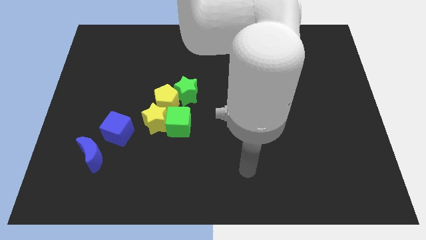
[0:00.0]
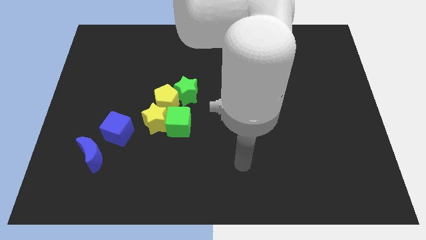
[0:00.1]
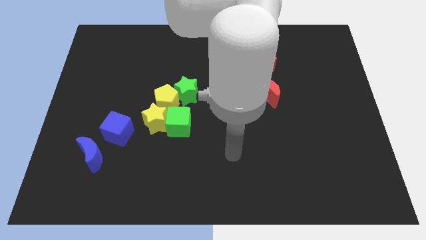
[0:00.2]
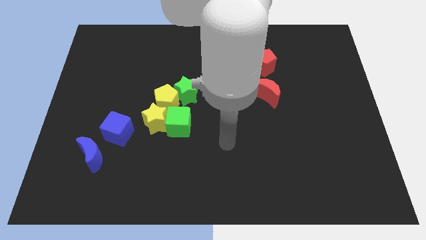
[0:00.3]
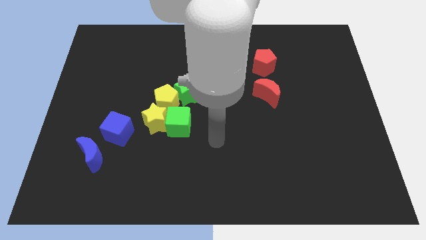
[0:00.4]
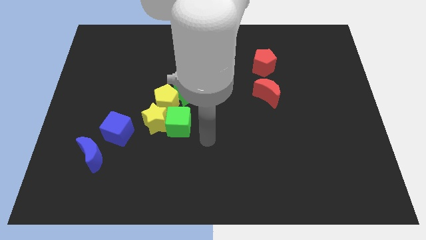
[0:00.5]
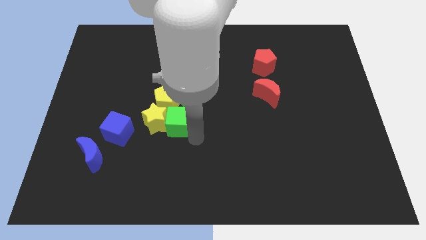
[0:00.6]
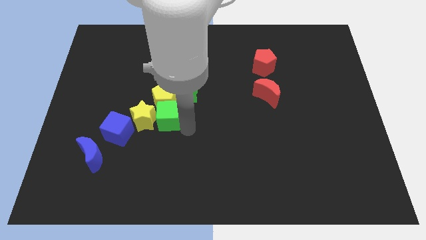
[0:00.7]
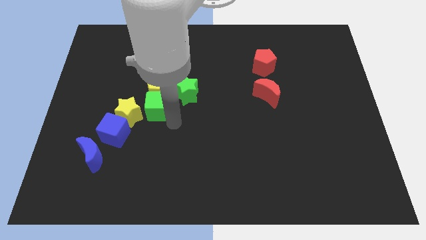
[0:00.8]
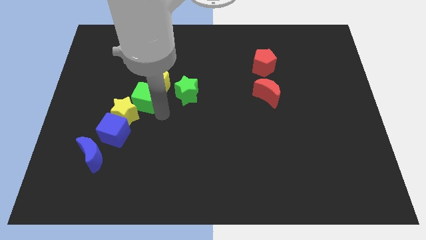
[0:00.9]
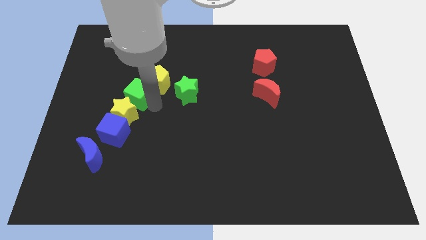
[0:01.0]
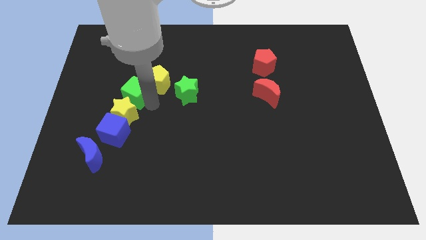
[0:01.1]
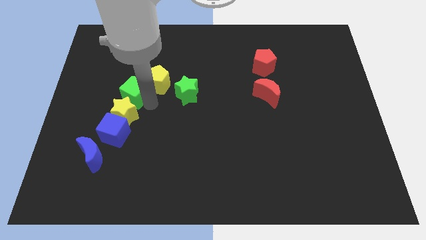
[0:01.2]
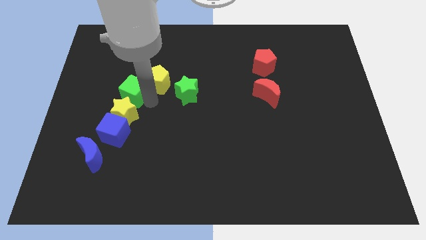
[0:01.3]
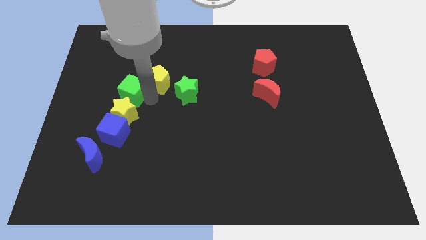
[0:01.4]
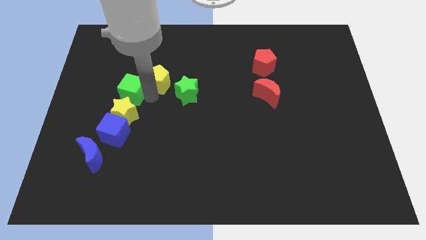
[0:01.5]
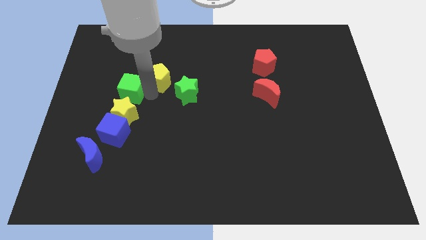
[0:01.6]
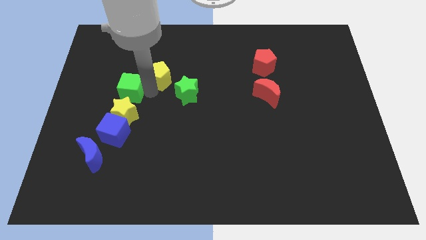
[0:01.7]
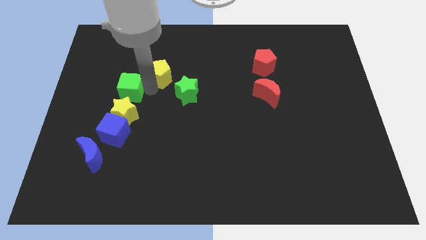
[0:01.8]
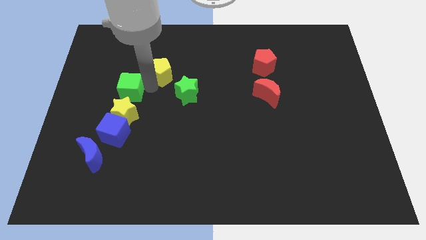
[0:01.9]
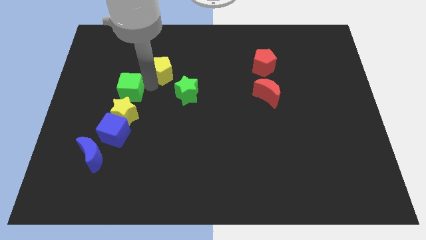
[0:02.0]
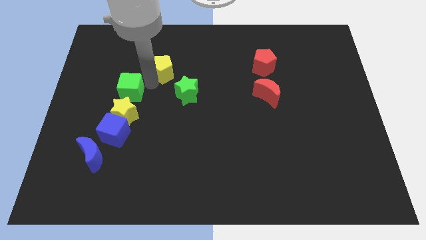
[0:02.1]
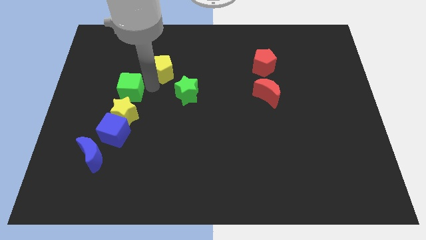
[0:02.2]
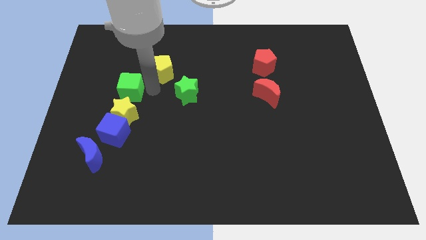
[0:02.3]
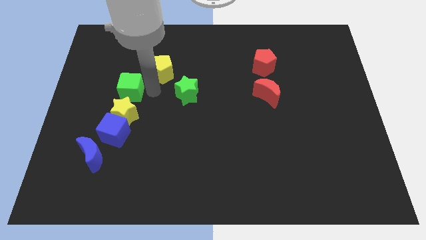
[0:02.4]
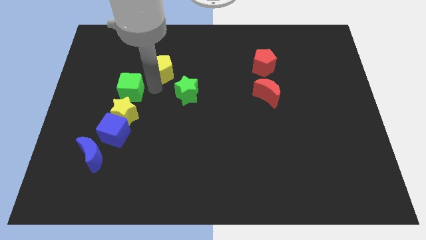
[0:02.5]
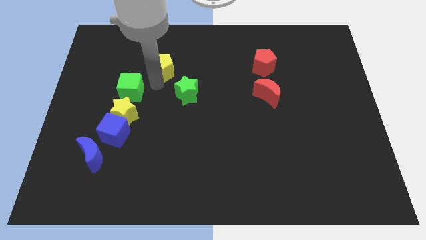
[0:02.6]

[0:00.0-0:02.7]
pull the yellow pentagon apart from the group

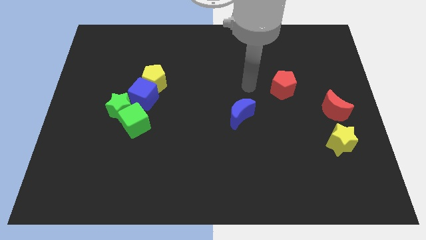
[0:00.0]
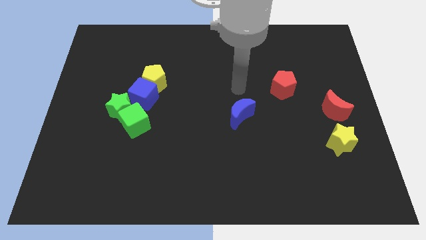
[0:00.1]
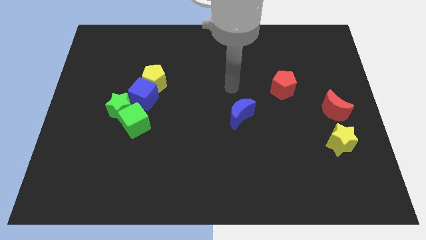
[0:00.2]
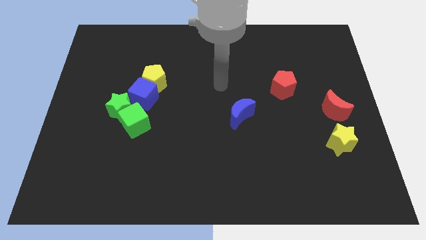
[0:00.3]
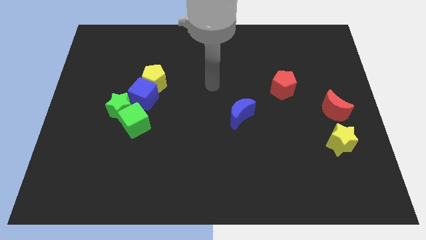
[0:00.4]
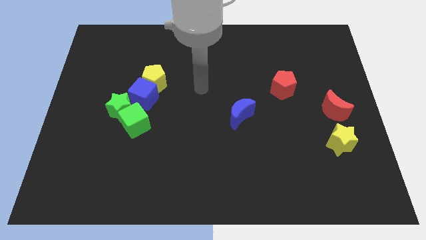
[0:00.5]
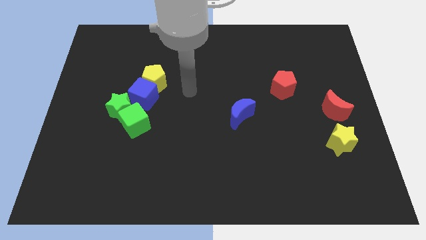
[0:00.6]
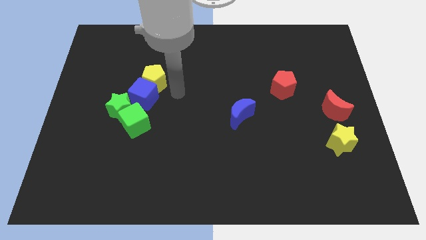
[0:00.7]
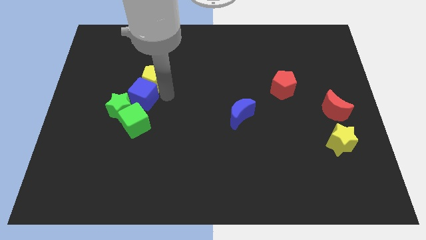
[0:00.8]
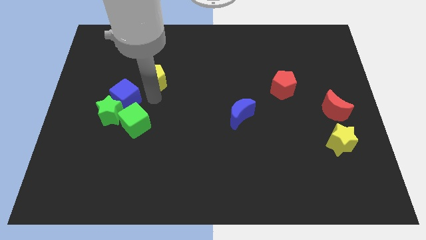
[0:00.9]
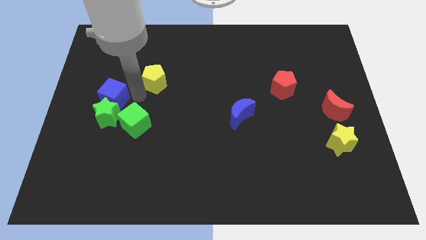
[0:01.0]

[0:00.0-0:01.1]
move the yellow pentagon away from the blue cube

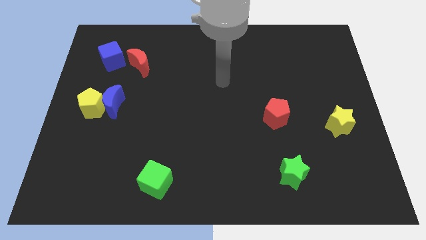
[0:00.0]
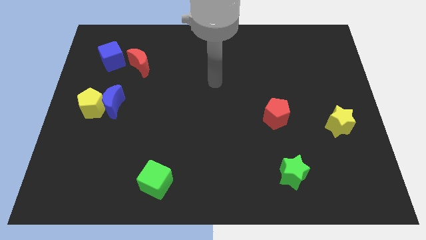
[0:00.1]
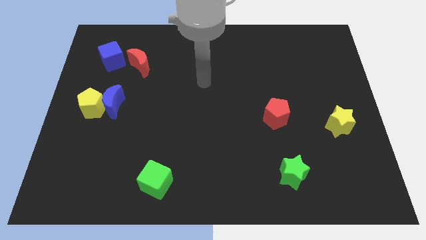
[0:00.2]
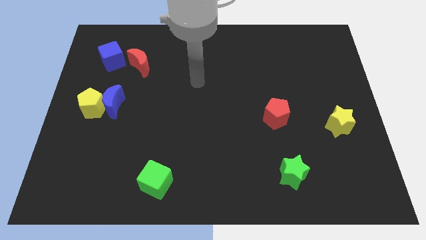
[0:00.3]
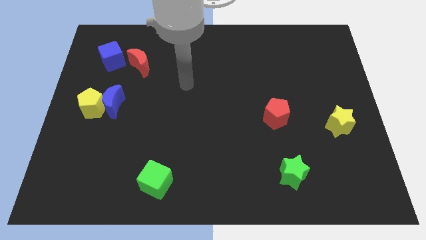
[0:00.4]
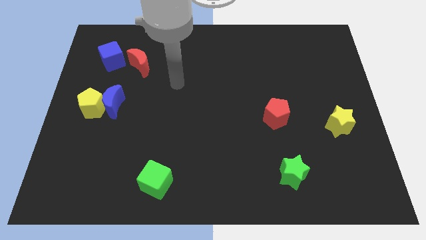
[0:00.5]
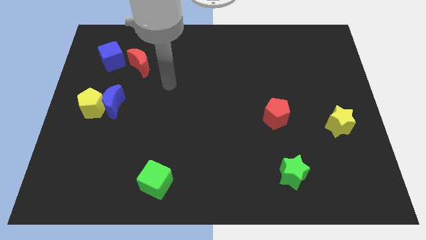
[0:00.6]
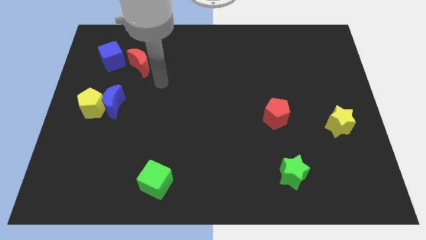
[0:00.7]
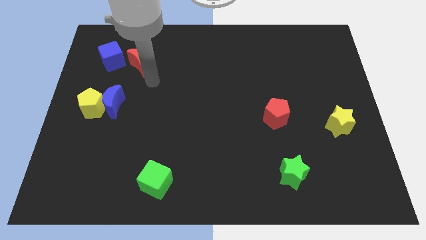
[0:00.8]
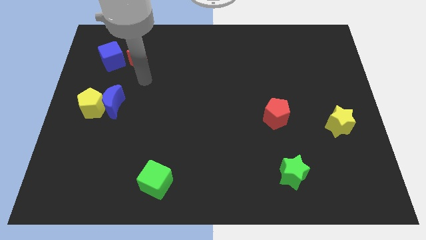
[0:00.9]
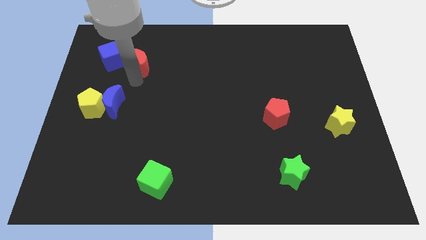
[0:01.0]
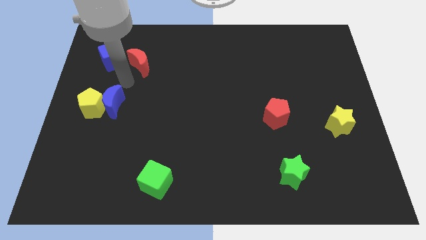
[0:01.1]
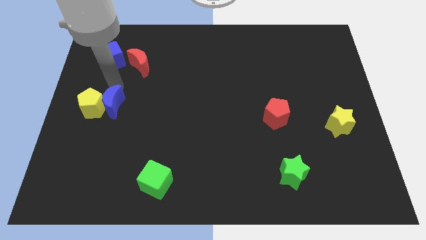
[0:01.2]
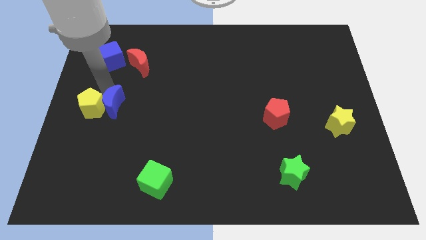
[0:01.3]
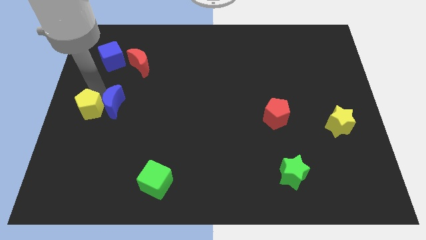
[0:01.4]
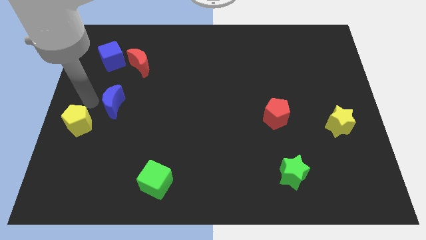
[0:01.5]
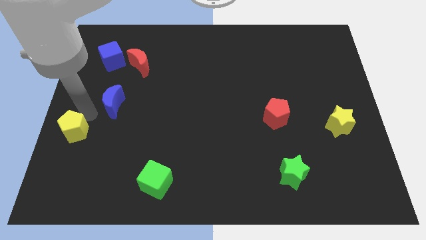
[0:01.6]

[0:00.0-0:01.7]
pull the blue moon apart from the yellow pentagon

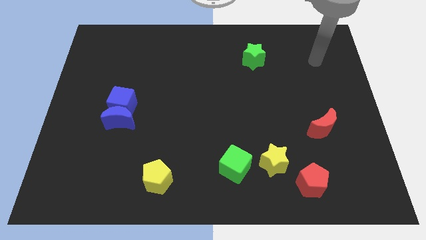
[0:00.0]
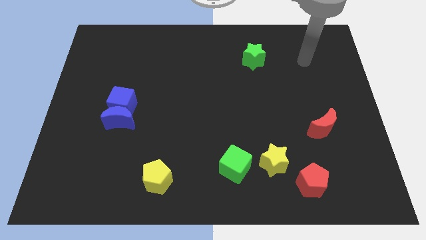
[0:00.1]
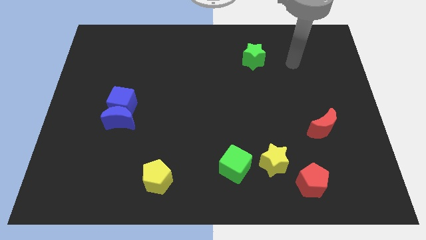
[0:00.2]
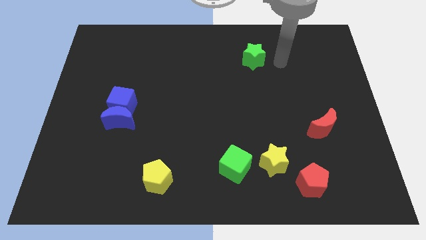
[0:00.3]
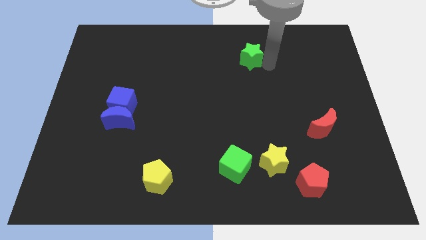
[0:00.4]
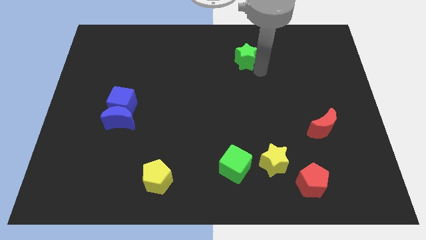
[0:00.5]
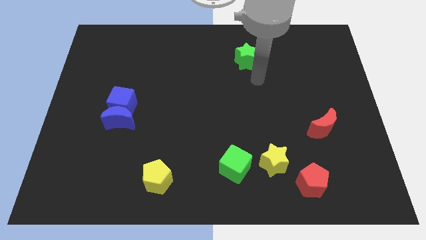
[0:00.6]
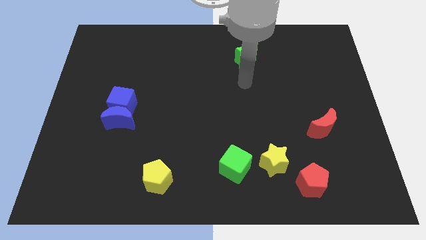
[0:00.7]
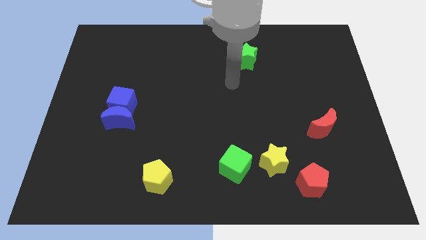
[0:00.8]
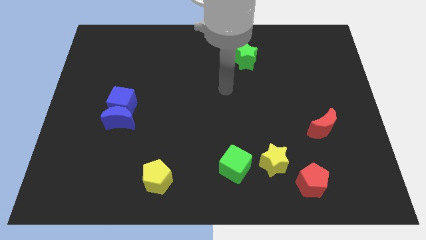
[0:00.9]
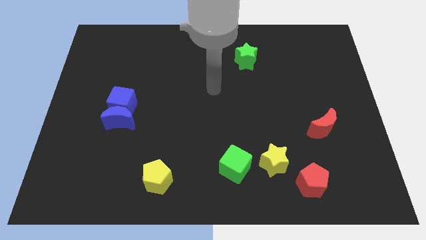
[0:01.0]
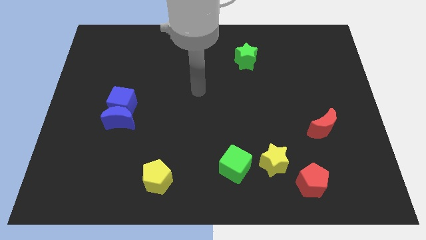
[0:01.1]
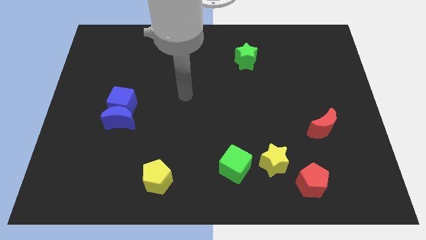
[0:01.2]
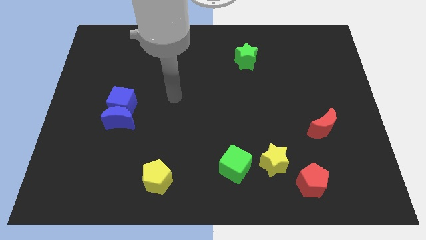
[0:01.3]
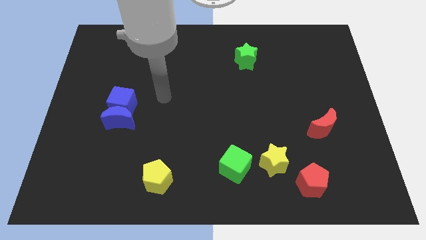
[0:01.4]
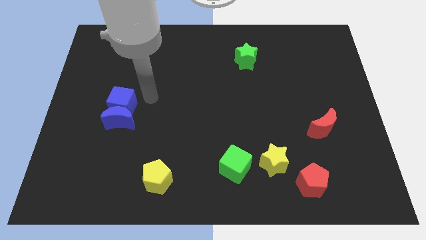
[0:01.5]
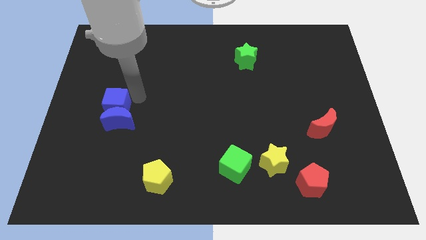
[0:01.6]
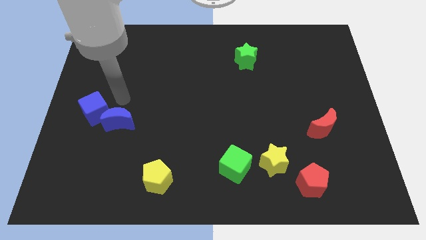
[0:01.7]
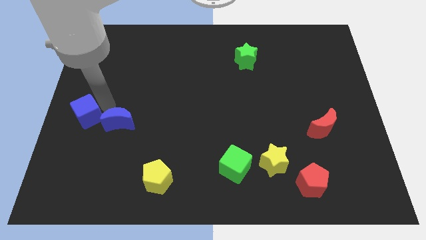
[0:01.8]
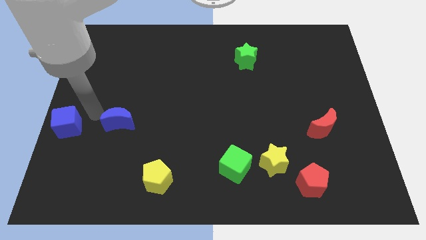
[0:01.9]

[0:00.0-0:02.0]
separate the blue moon from the blue cube

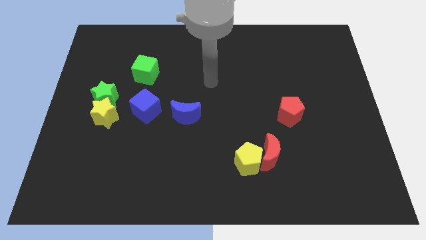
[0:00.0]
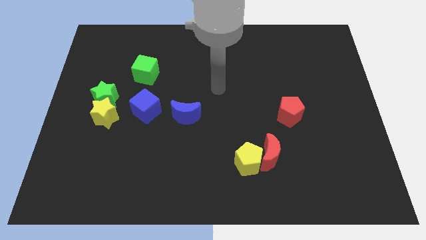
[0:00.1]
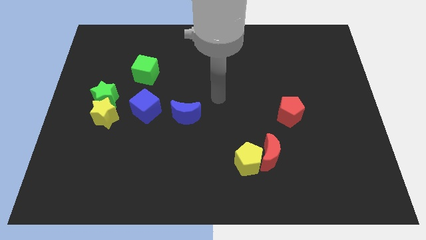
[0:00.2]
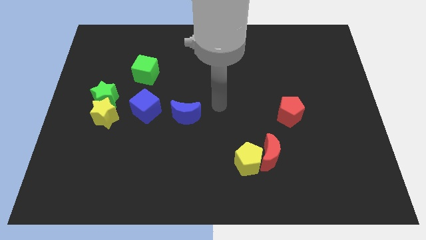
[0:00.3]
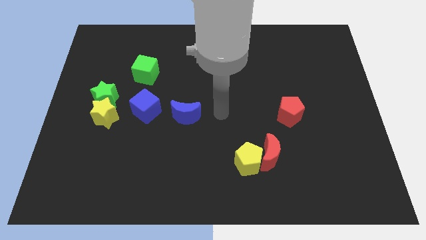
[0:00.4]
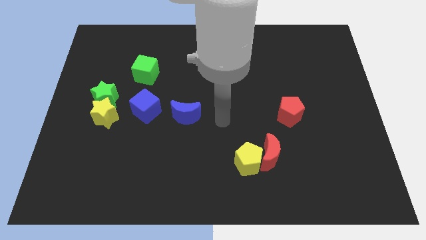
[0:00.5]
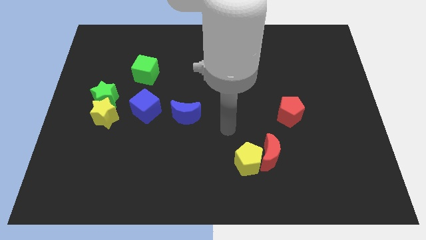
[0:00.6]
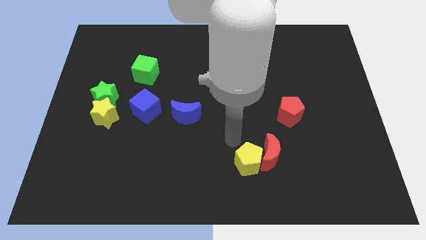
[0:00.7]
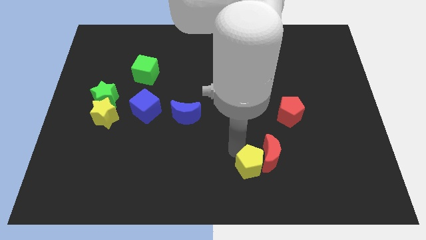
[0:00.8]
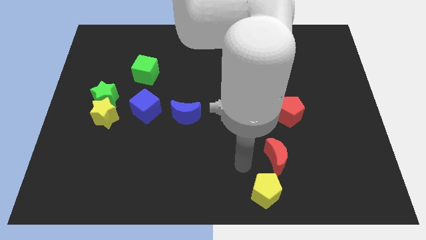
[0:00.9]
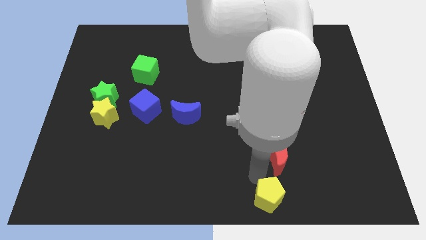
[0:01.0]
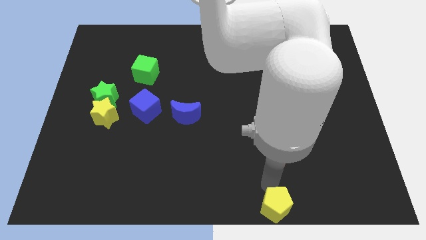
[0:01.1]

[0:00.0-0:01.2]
separate the red moon from the yellow pentagon

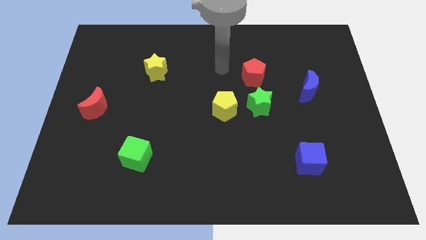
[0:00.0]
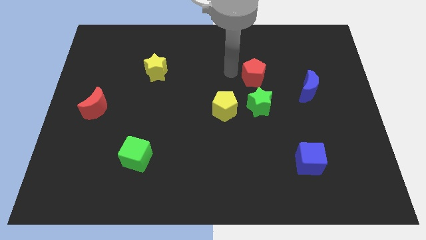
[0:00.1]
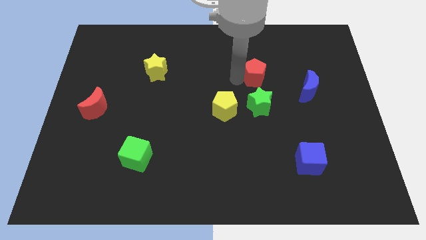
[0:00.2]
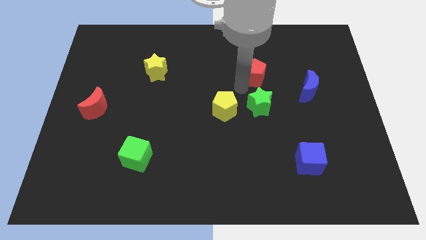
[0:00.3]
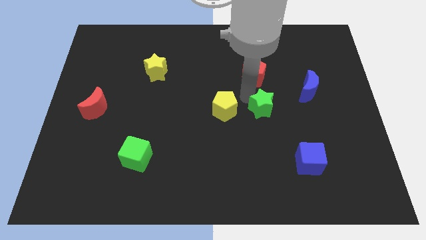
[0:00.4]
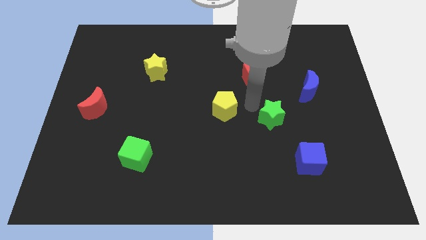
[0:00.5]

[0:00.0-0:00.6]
separate the yellow pentagon from the green star

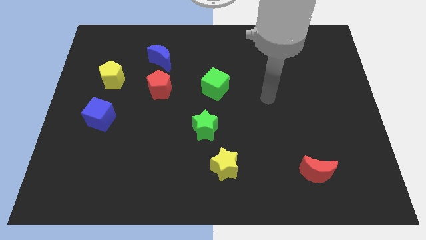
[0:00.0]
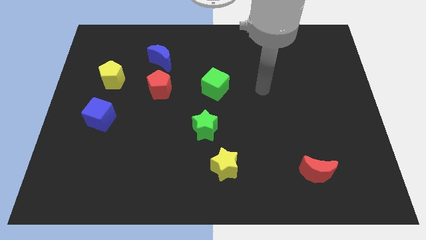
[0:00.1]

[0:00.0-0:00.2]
pull the red pentagon apart from the blue moon

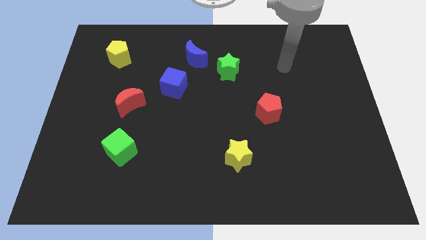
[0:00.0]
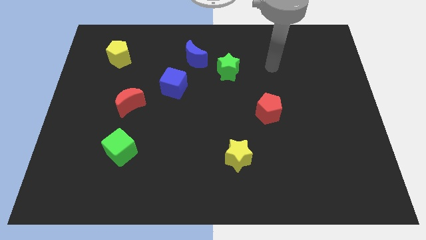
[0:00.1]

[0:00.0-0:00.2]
pull the blue moon apart from the green star
